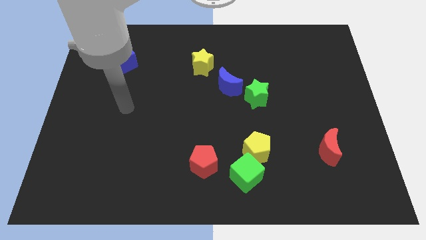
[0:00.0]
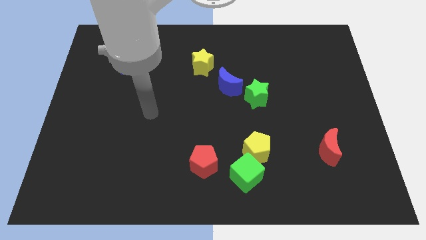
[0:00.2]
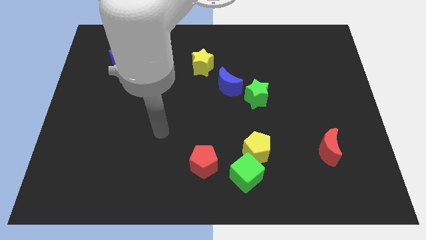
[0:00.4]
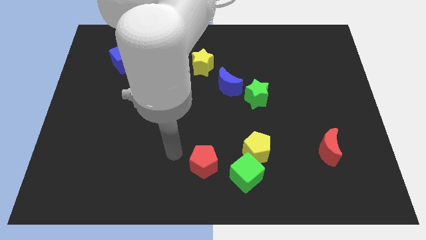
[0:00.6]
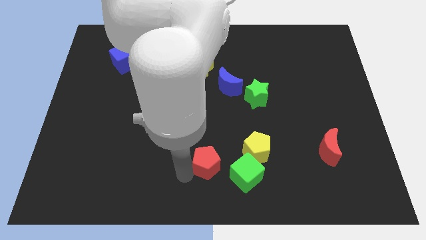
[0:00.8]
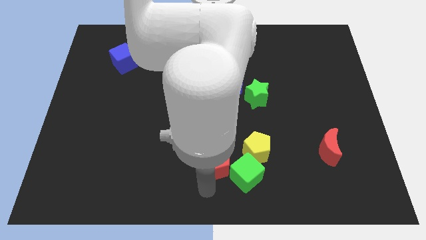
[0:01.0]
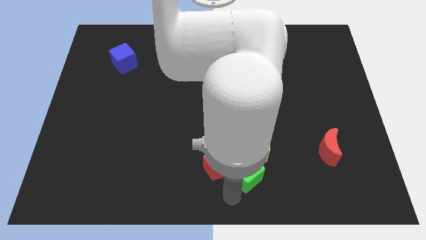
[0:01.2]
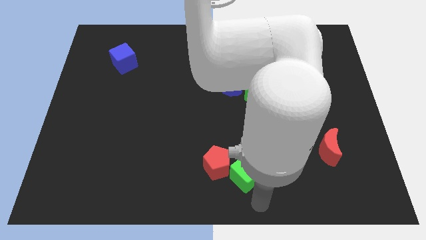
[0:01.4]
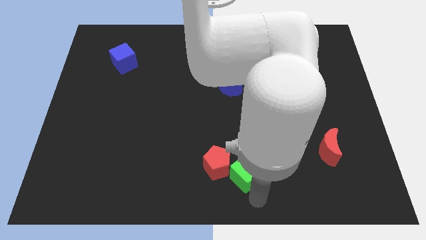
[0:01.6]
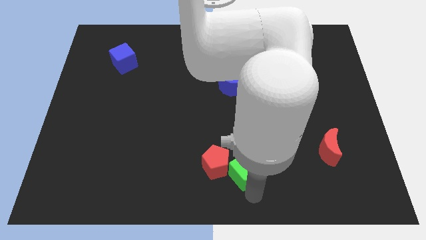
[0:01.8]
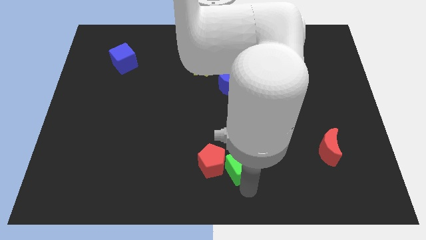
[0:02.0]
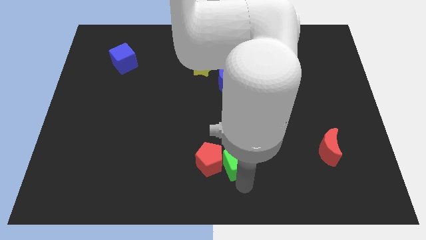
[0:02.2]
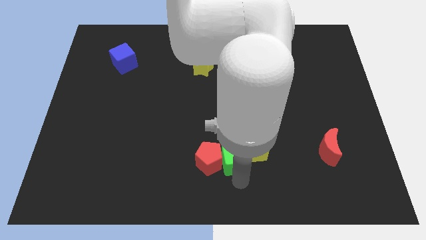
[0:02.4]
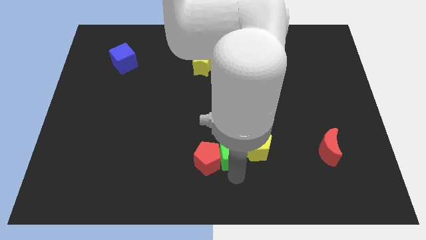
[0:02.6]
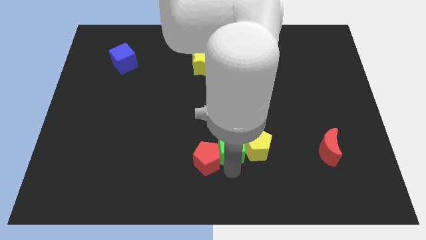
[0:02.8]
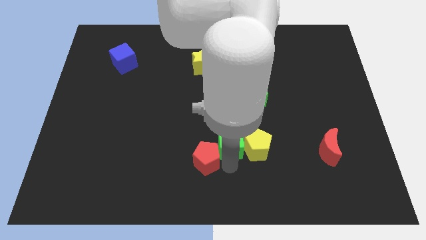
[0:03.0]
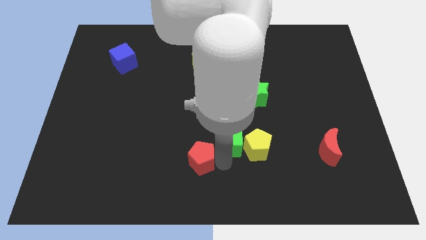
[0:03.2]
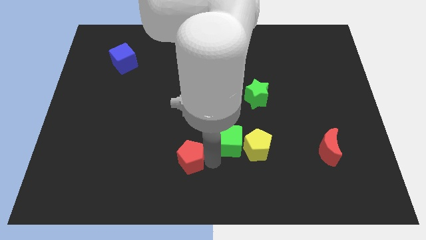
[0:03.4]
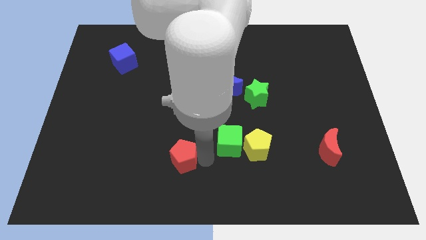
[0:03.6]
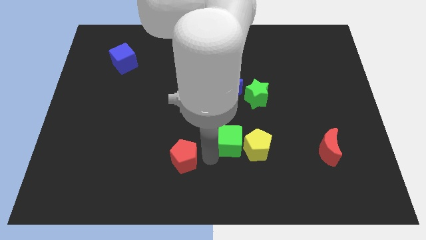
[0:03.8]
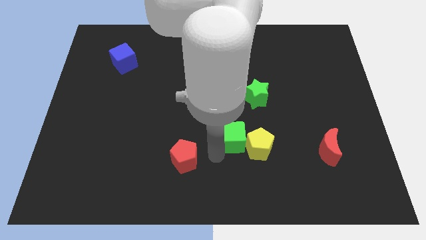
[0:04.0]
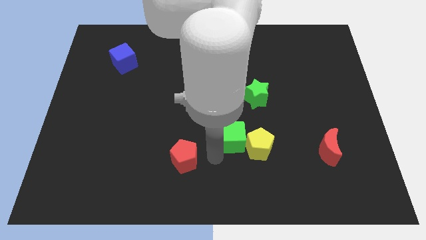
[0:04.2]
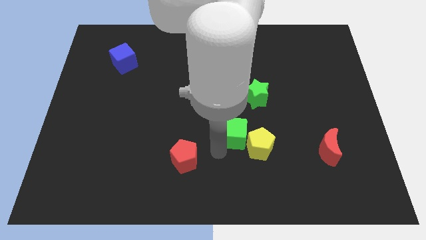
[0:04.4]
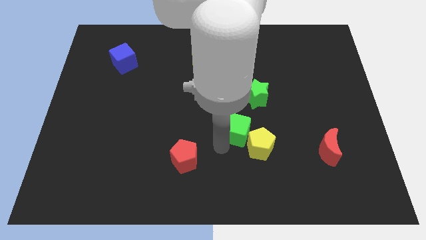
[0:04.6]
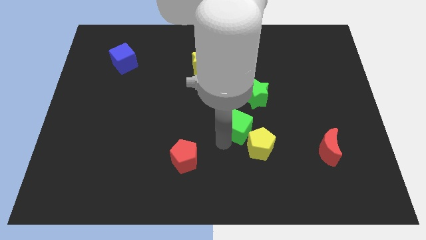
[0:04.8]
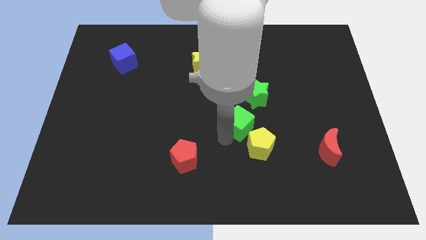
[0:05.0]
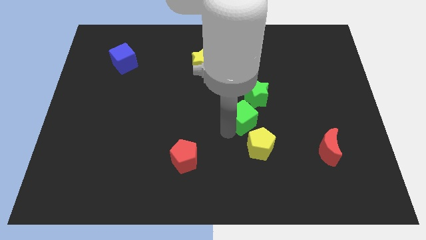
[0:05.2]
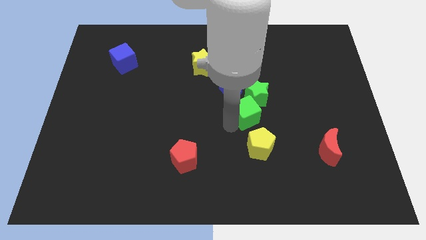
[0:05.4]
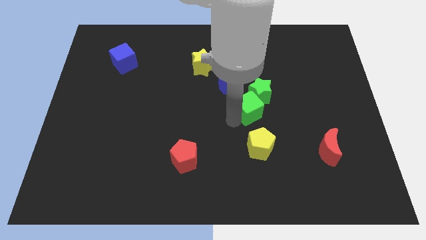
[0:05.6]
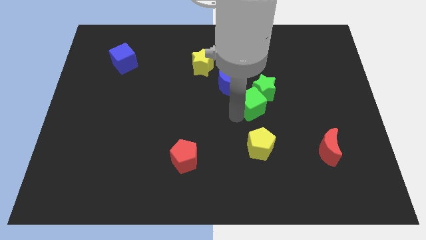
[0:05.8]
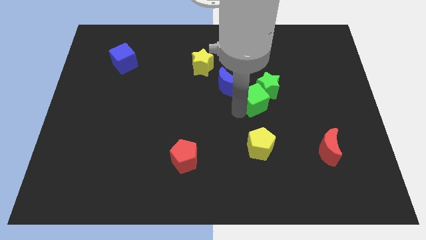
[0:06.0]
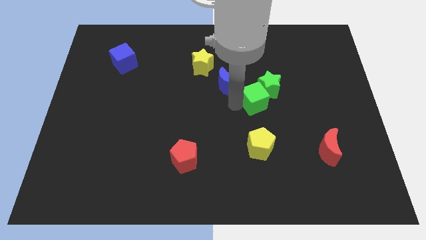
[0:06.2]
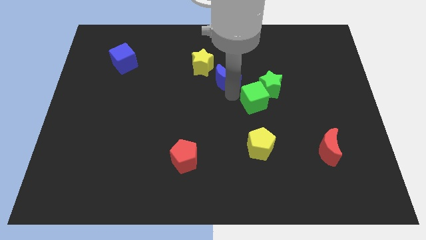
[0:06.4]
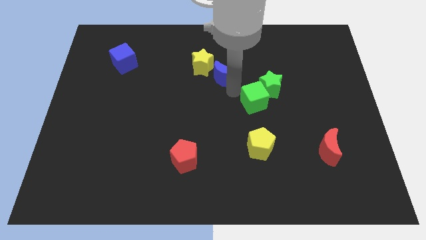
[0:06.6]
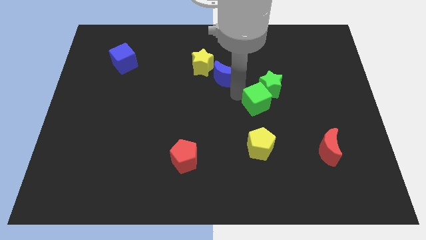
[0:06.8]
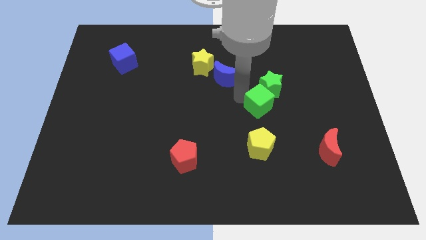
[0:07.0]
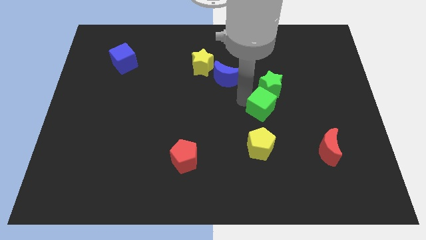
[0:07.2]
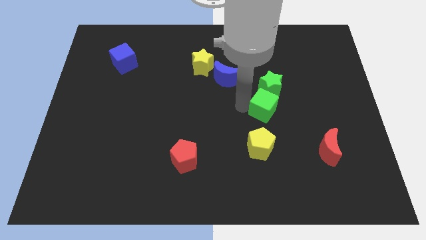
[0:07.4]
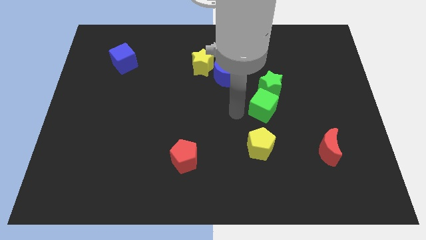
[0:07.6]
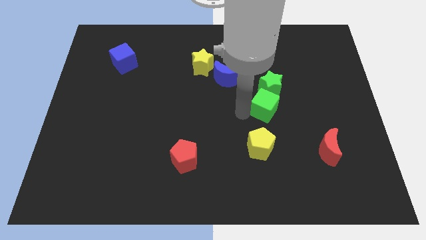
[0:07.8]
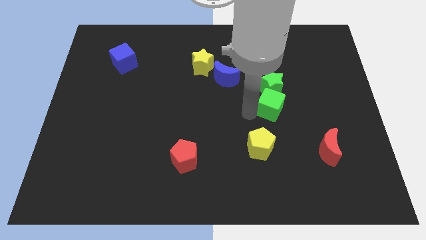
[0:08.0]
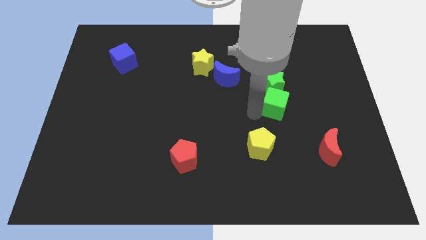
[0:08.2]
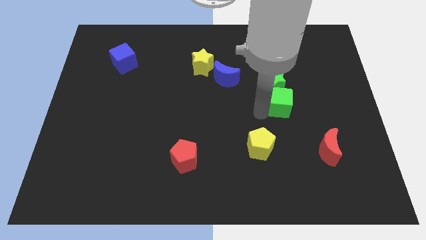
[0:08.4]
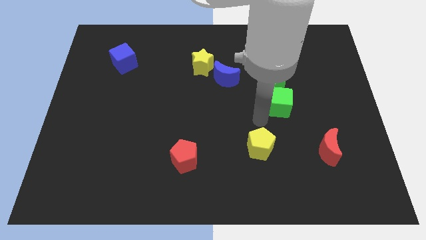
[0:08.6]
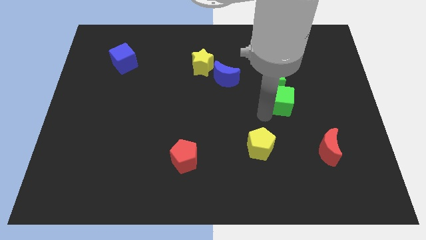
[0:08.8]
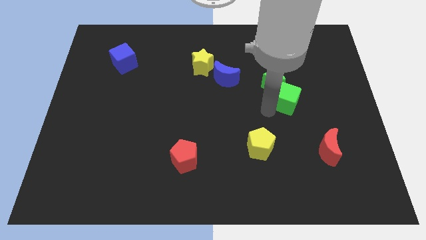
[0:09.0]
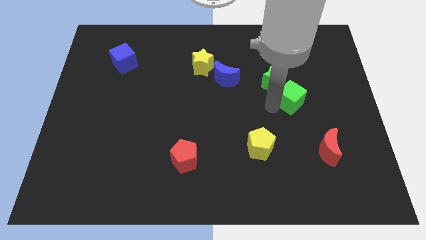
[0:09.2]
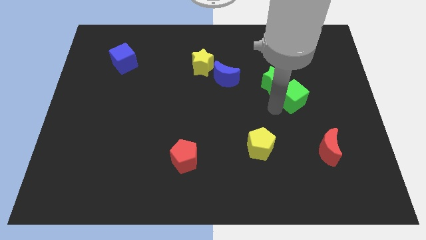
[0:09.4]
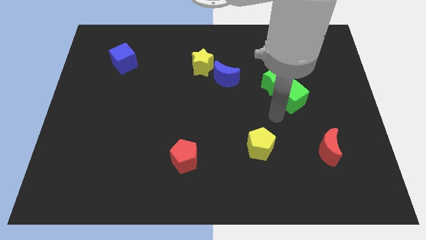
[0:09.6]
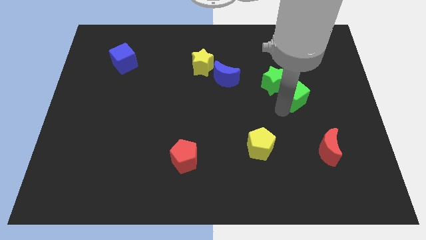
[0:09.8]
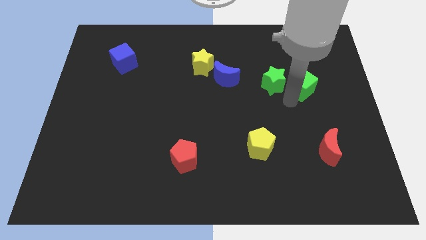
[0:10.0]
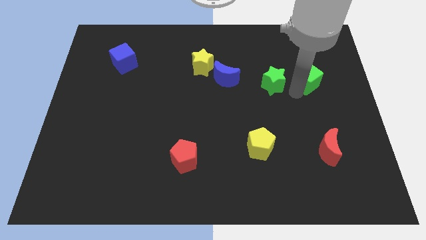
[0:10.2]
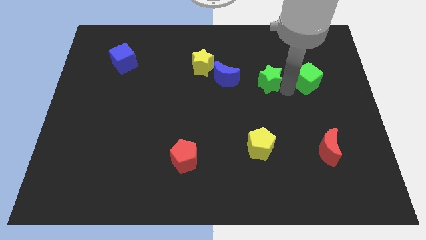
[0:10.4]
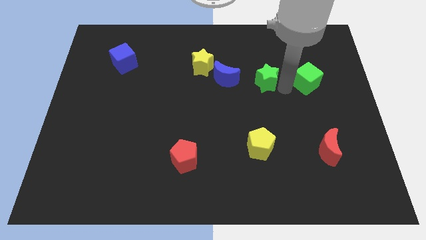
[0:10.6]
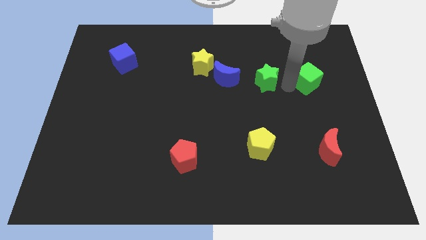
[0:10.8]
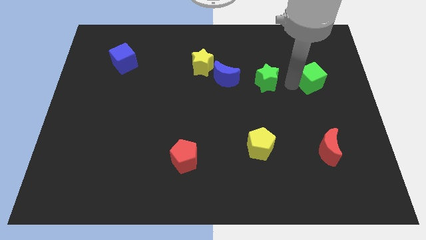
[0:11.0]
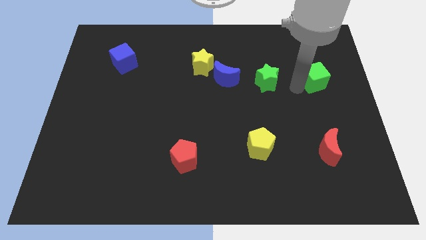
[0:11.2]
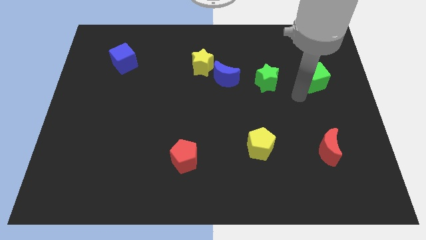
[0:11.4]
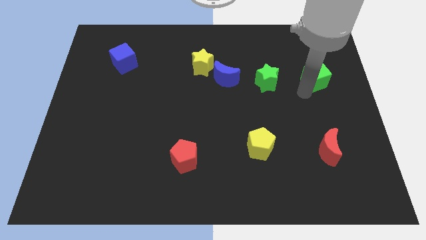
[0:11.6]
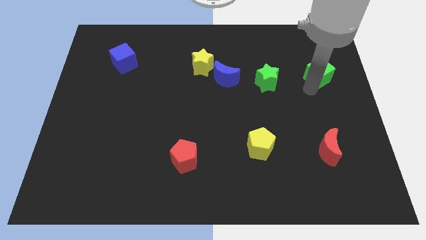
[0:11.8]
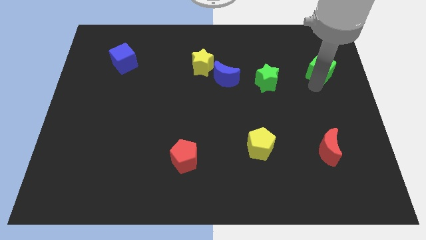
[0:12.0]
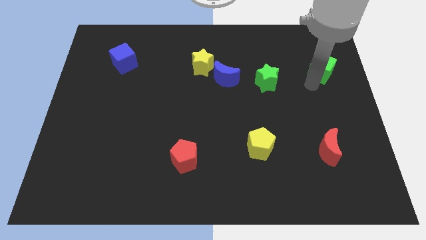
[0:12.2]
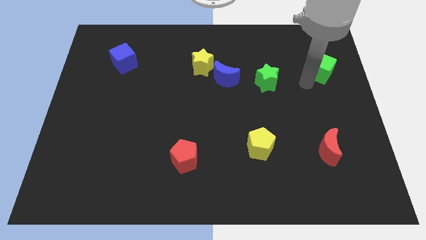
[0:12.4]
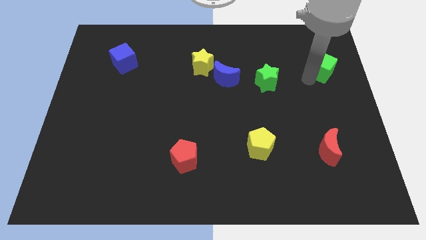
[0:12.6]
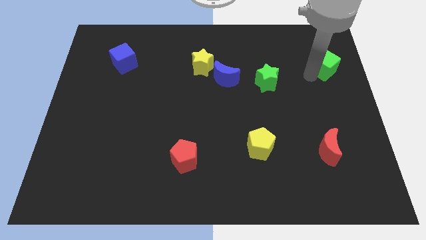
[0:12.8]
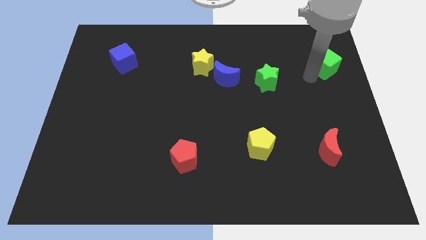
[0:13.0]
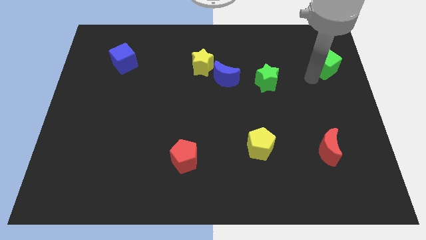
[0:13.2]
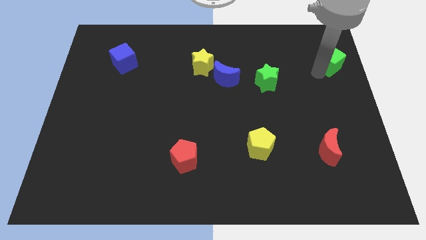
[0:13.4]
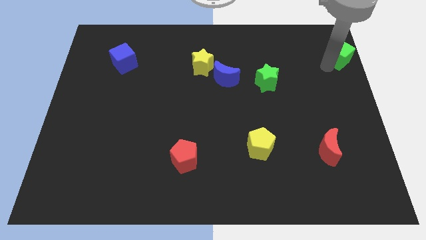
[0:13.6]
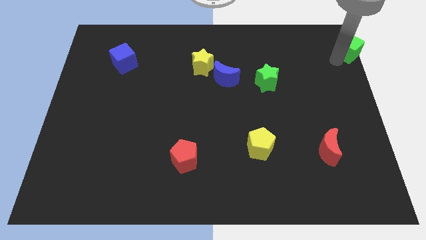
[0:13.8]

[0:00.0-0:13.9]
put the green cube to the top right
